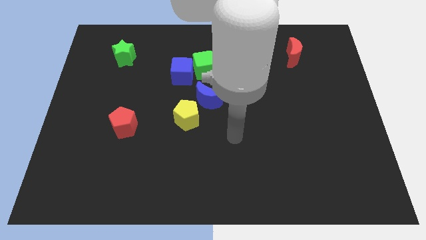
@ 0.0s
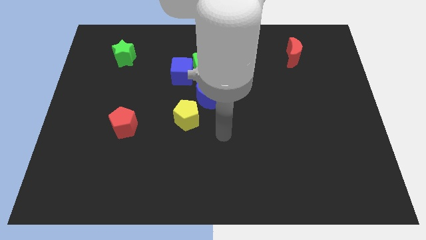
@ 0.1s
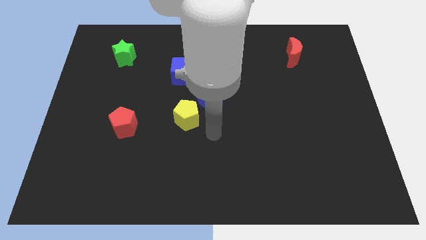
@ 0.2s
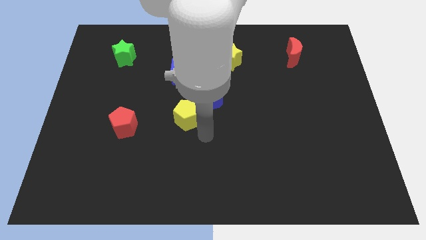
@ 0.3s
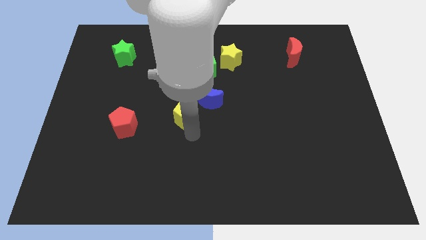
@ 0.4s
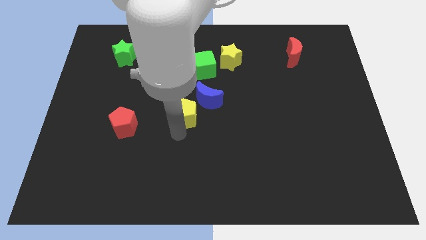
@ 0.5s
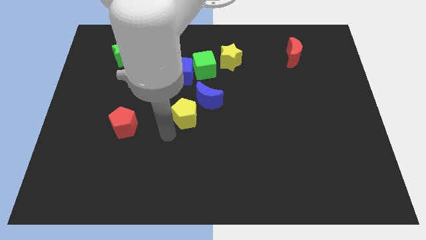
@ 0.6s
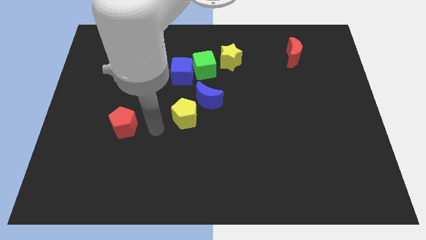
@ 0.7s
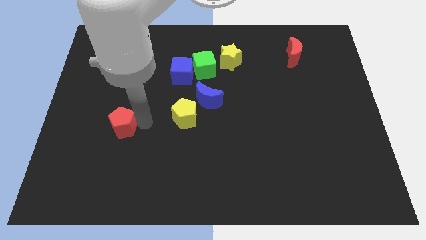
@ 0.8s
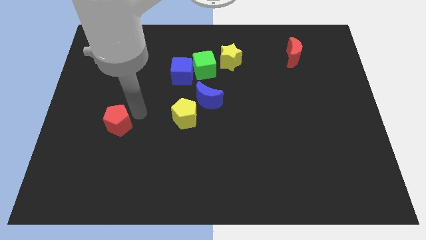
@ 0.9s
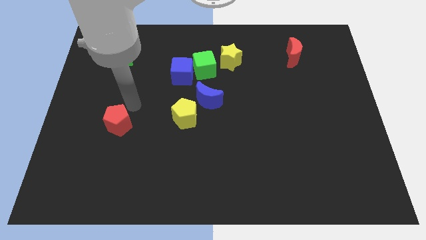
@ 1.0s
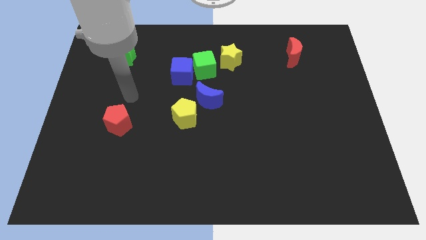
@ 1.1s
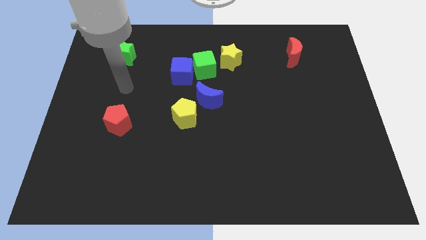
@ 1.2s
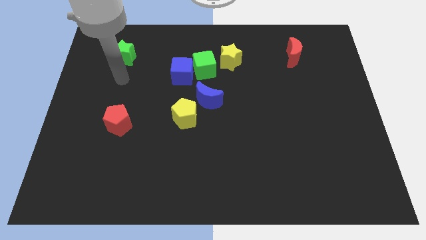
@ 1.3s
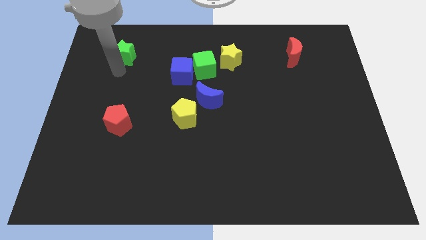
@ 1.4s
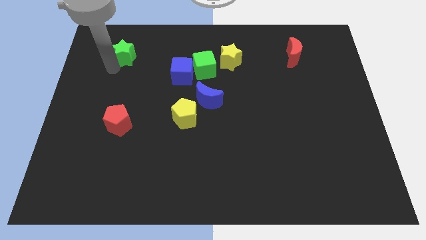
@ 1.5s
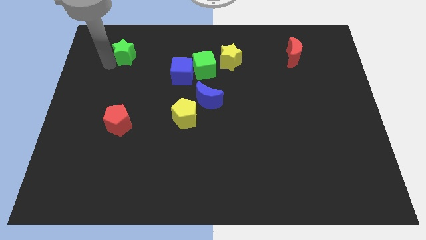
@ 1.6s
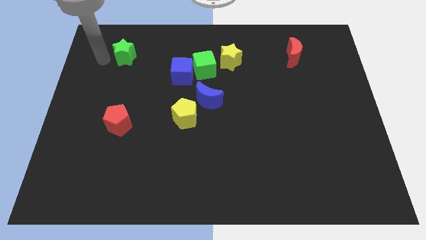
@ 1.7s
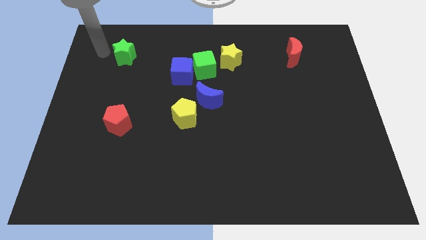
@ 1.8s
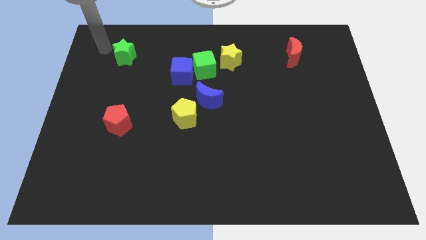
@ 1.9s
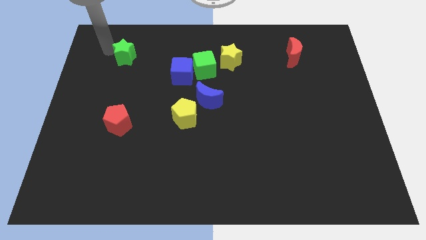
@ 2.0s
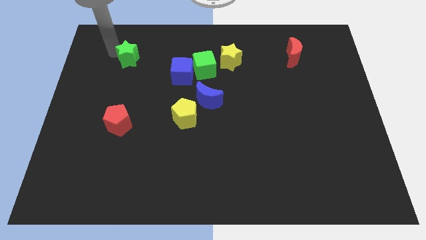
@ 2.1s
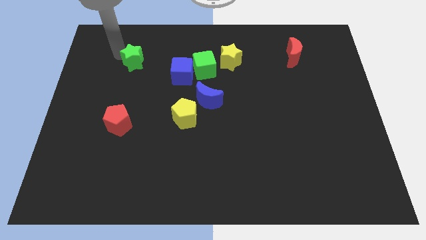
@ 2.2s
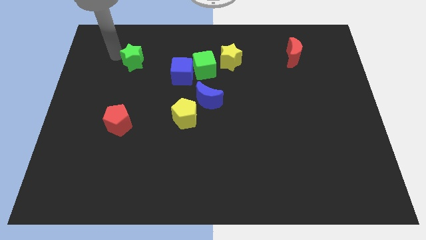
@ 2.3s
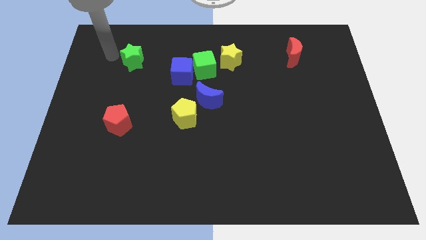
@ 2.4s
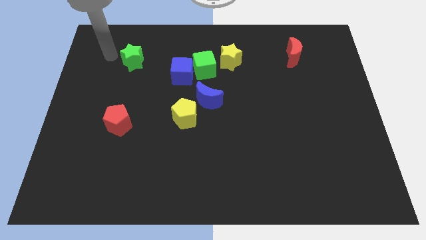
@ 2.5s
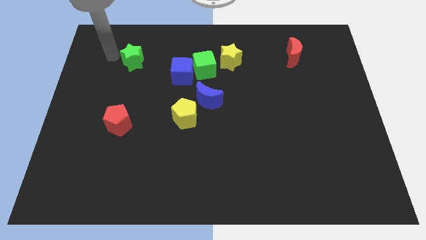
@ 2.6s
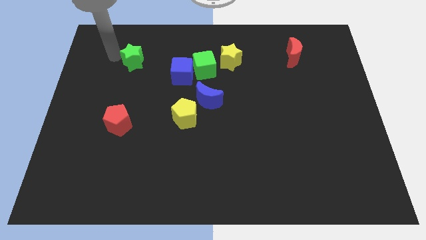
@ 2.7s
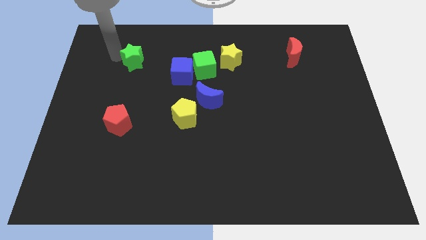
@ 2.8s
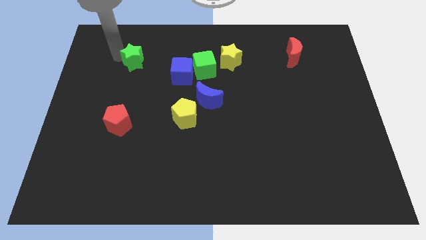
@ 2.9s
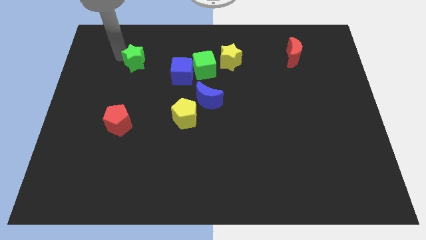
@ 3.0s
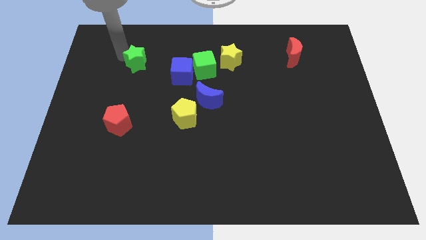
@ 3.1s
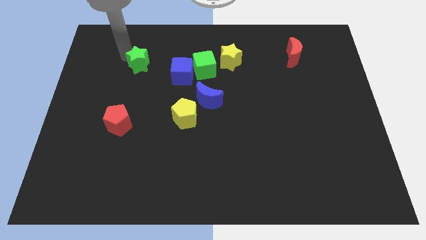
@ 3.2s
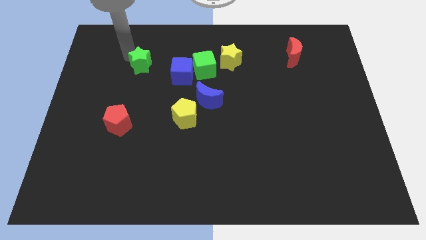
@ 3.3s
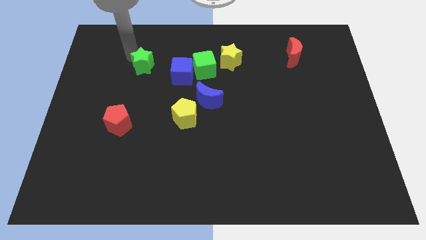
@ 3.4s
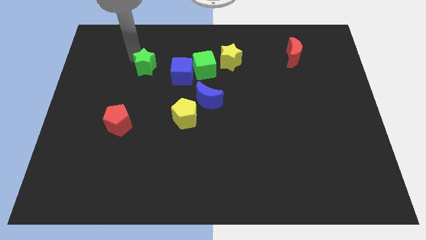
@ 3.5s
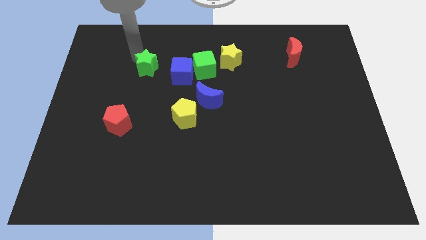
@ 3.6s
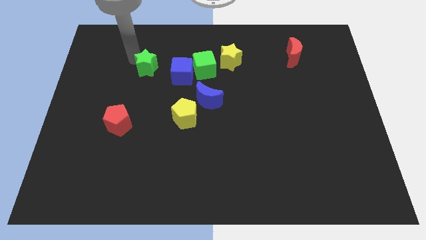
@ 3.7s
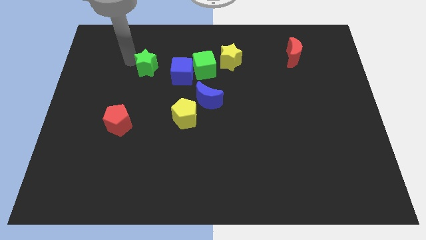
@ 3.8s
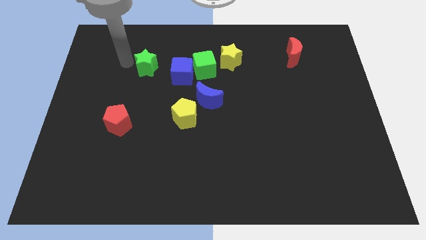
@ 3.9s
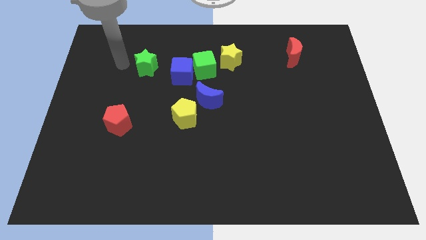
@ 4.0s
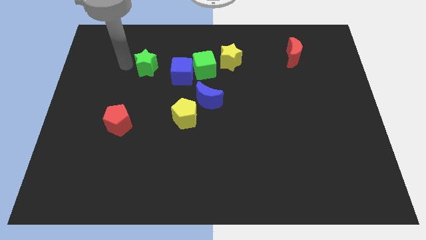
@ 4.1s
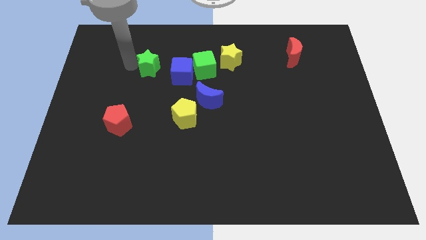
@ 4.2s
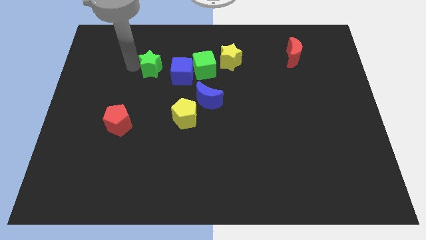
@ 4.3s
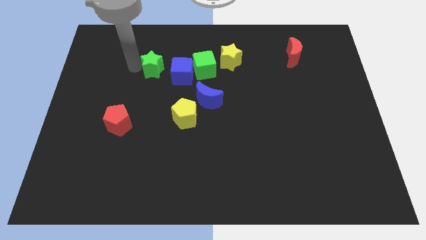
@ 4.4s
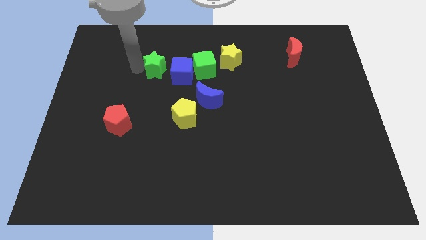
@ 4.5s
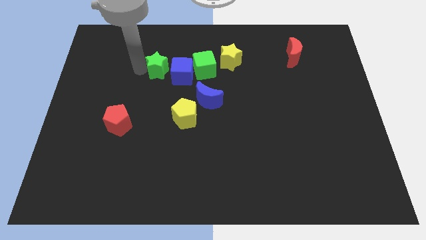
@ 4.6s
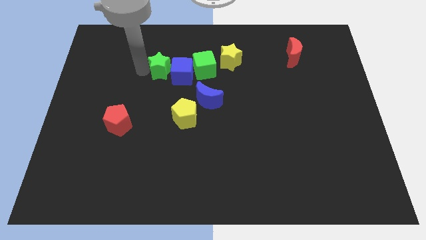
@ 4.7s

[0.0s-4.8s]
put the green star close to the blue cube

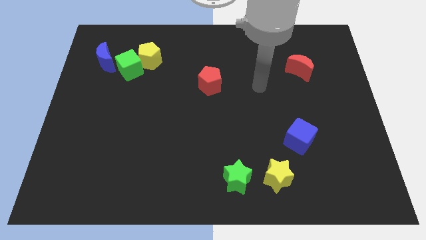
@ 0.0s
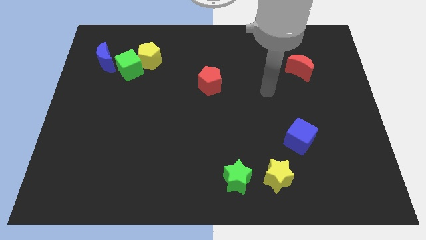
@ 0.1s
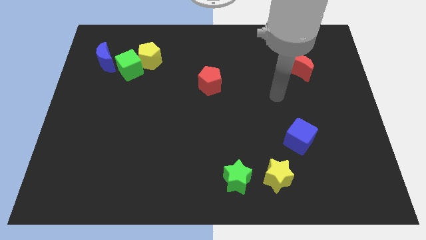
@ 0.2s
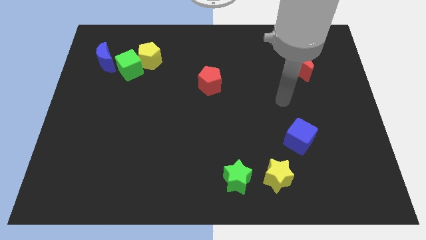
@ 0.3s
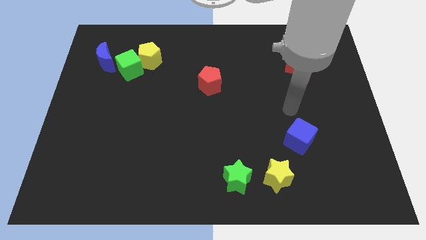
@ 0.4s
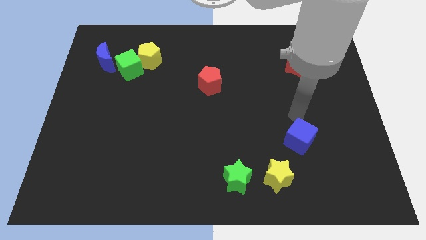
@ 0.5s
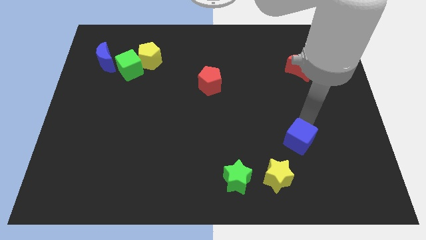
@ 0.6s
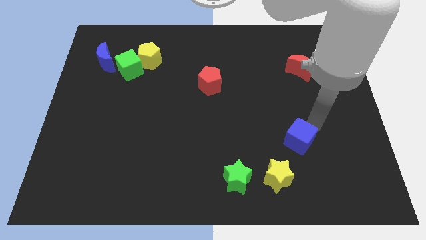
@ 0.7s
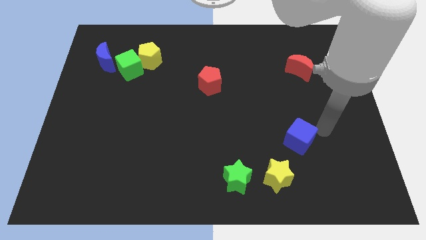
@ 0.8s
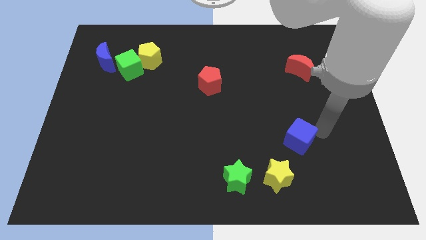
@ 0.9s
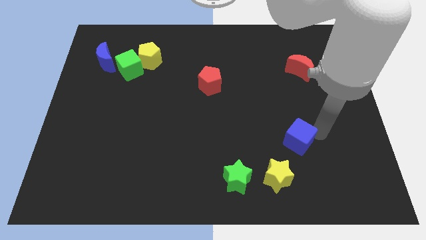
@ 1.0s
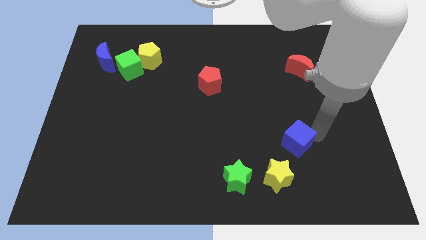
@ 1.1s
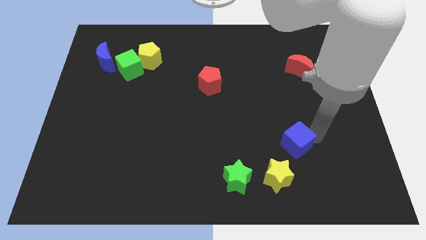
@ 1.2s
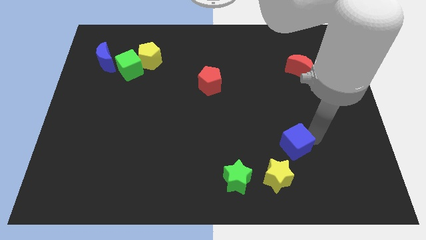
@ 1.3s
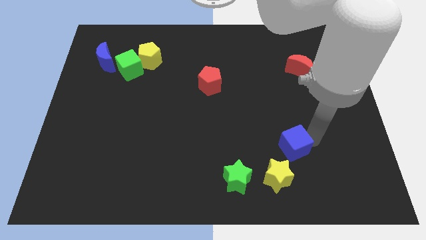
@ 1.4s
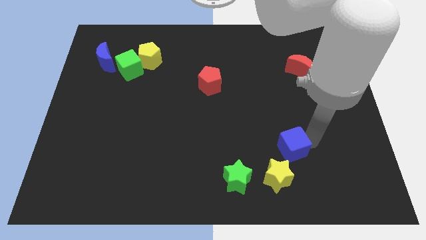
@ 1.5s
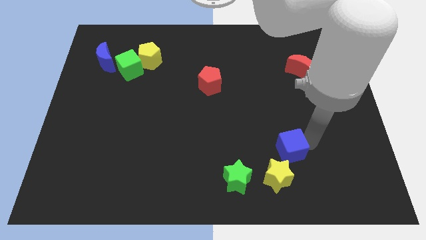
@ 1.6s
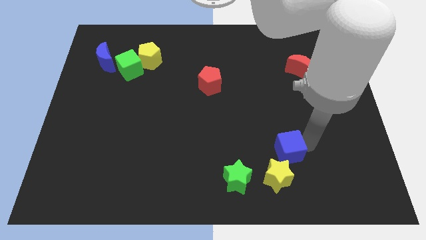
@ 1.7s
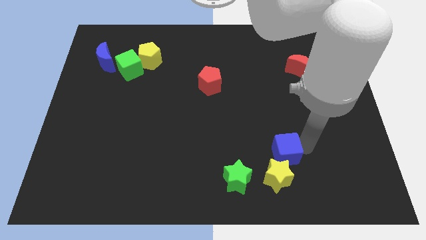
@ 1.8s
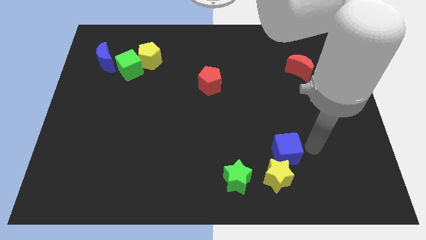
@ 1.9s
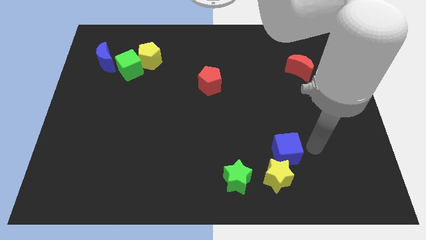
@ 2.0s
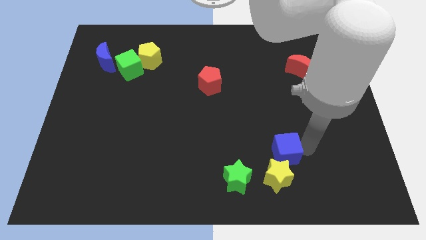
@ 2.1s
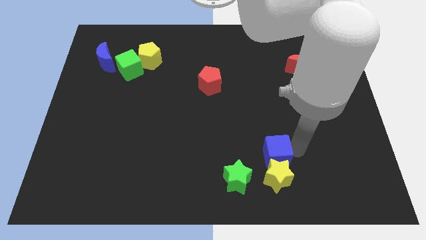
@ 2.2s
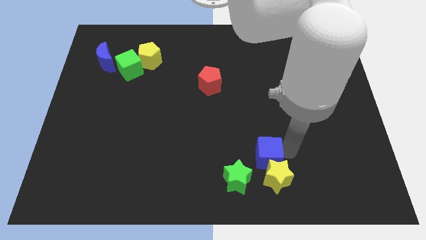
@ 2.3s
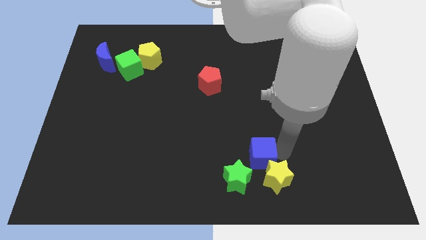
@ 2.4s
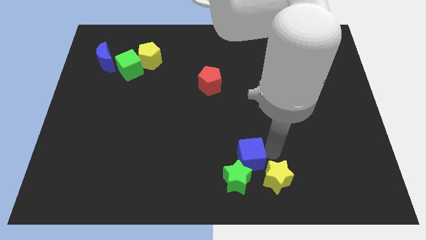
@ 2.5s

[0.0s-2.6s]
push the blue cube to the green star

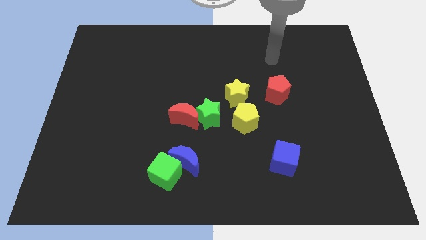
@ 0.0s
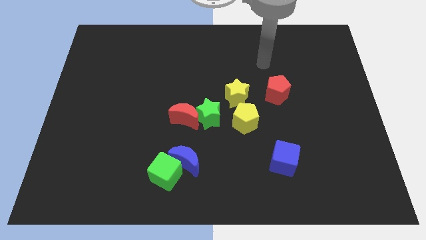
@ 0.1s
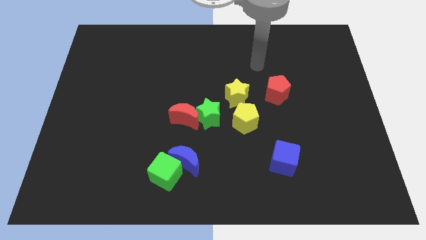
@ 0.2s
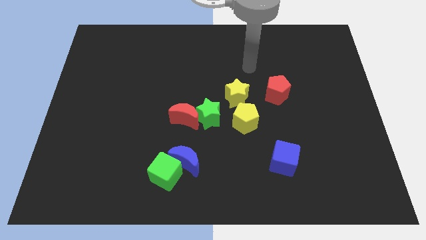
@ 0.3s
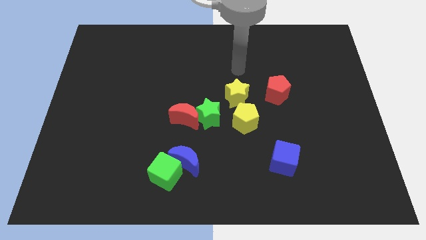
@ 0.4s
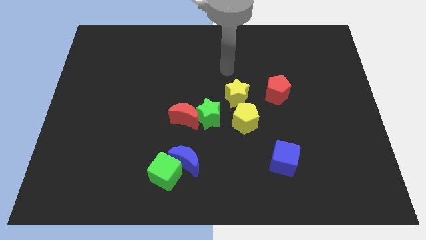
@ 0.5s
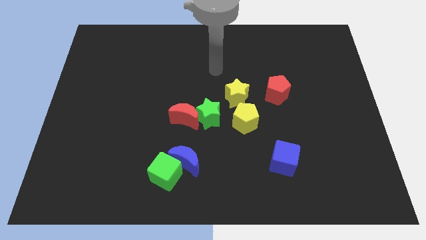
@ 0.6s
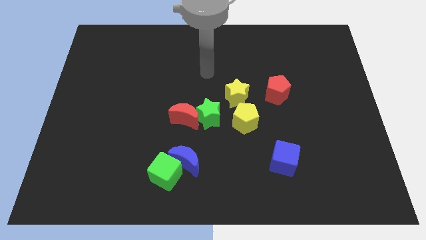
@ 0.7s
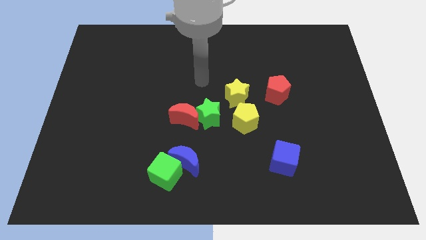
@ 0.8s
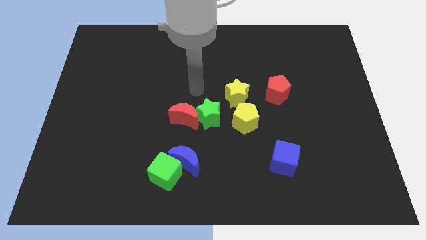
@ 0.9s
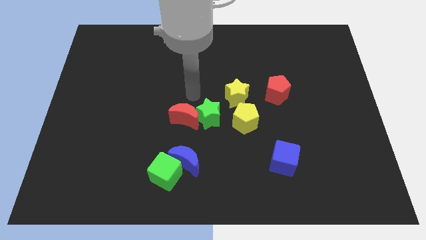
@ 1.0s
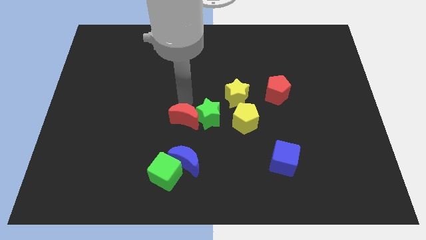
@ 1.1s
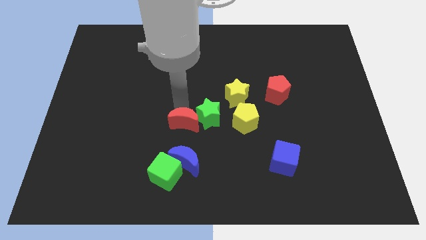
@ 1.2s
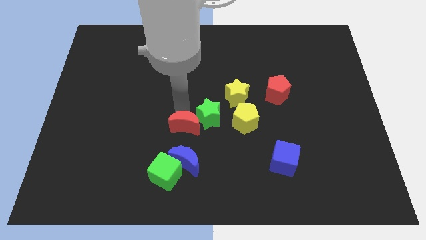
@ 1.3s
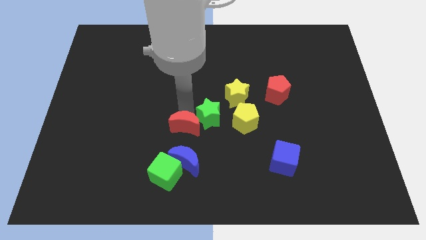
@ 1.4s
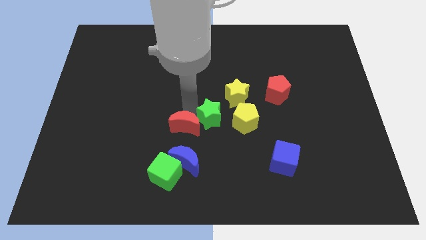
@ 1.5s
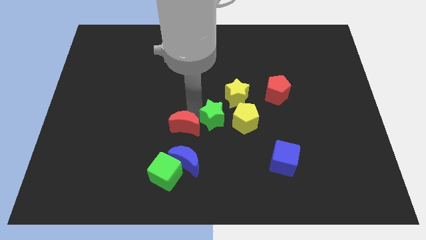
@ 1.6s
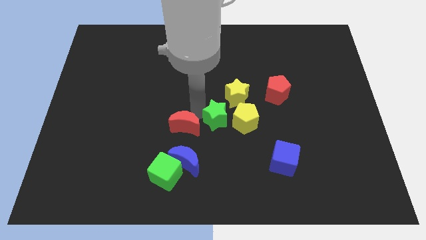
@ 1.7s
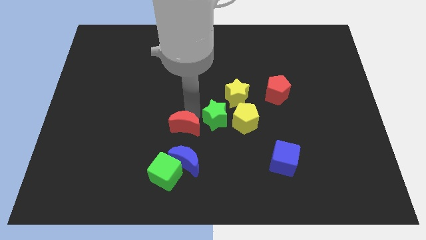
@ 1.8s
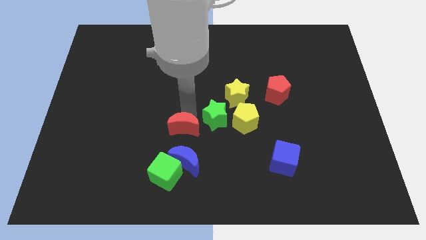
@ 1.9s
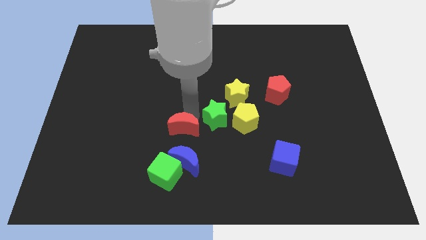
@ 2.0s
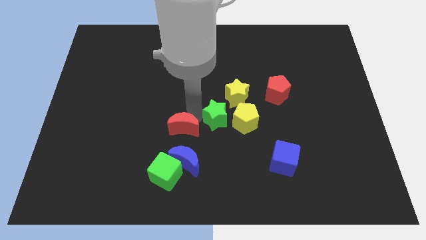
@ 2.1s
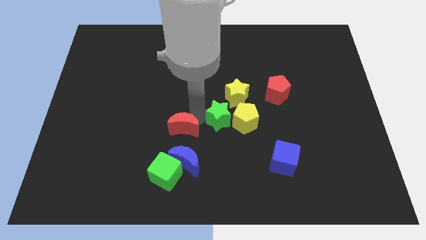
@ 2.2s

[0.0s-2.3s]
slide the green star next to the yellow pentagon
